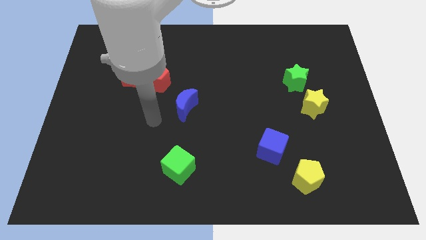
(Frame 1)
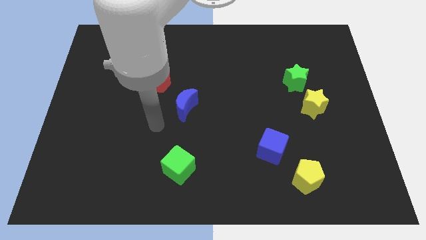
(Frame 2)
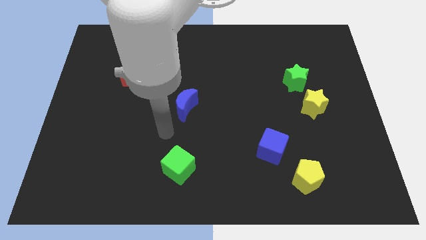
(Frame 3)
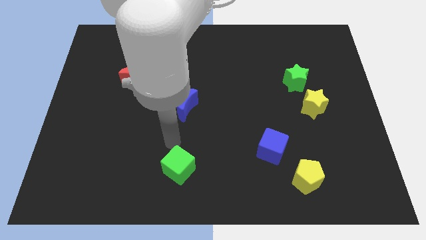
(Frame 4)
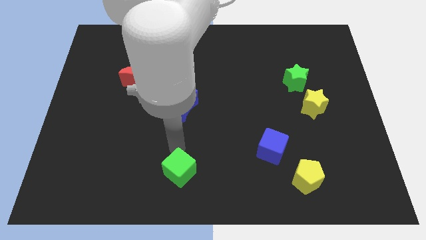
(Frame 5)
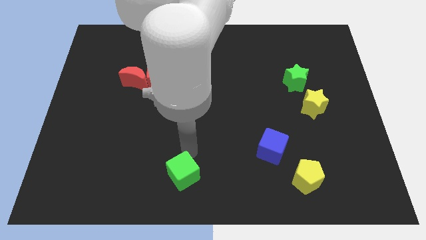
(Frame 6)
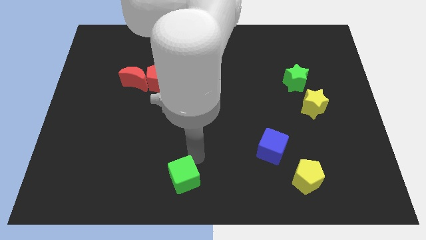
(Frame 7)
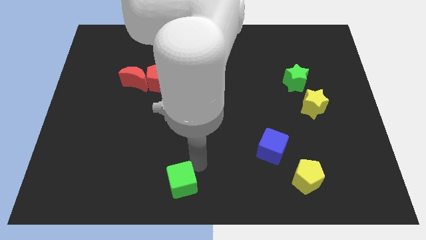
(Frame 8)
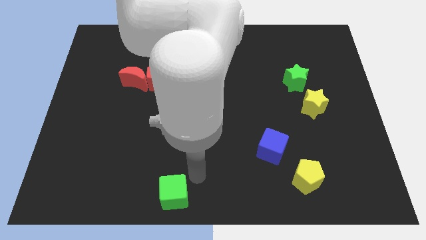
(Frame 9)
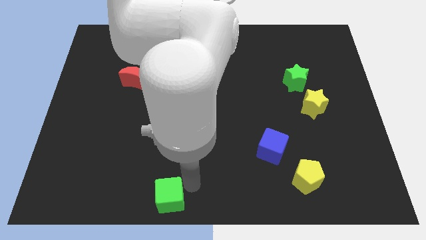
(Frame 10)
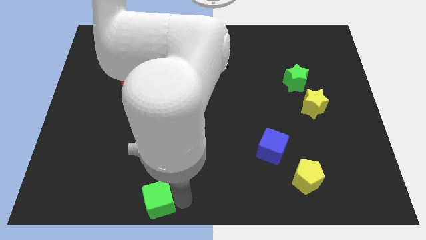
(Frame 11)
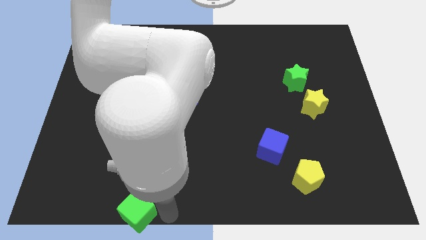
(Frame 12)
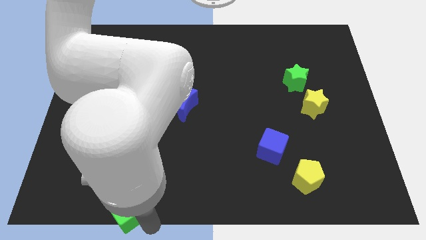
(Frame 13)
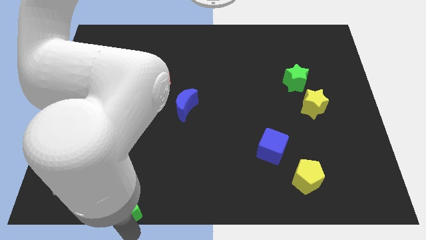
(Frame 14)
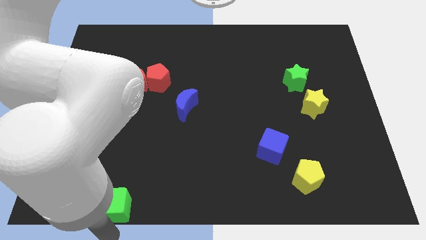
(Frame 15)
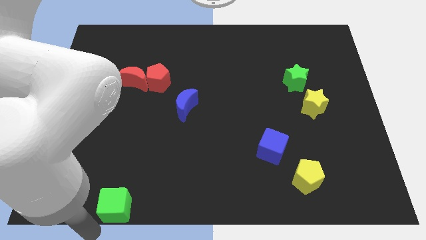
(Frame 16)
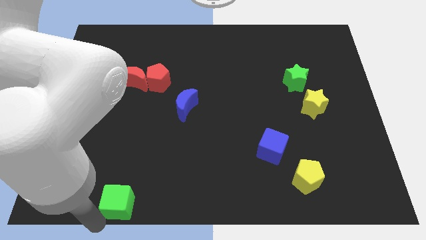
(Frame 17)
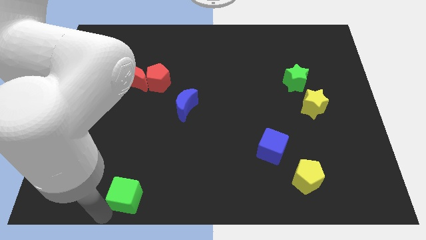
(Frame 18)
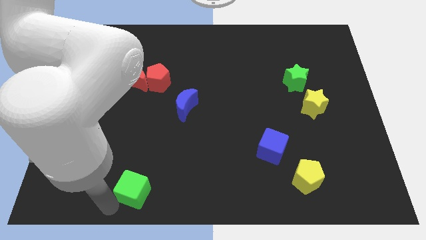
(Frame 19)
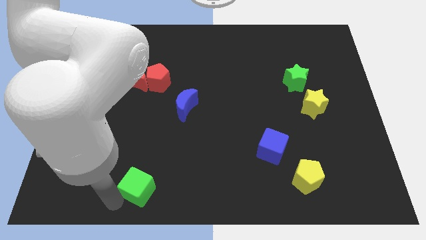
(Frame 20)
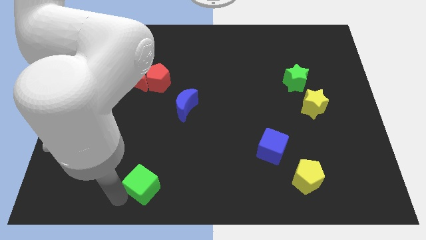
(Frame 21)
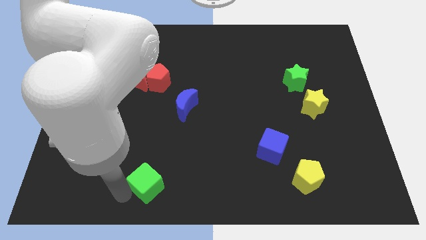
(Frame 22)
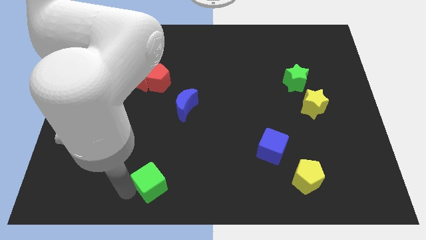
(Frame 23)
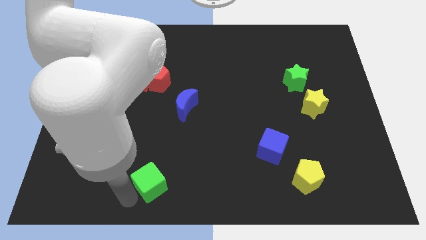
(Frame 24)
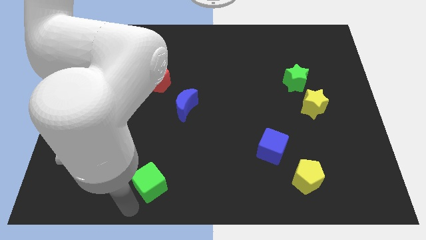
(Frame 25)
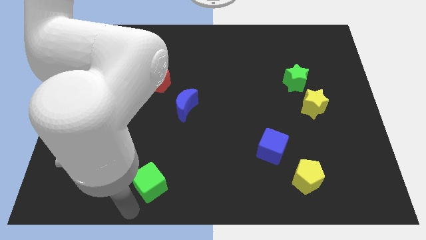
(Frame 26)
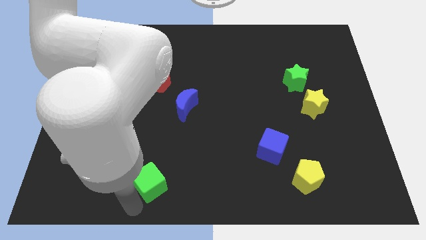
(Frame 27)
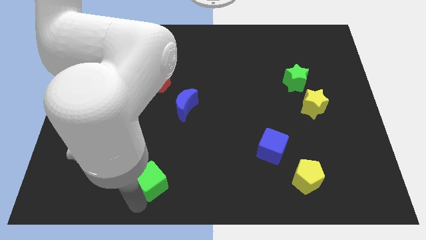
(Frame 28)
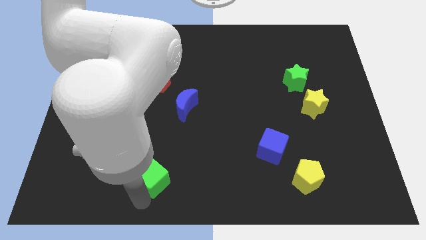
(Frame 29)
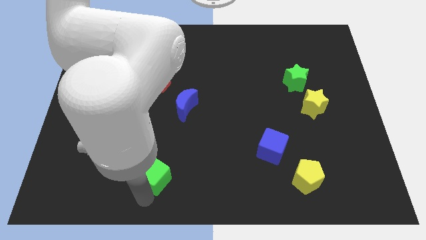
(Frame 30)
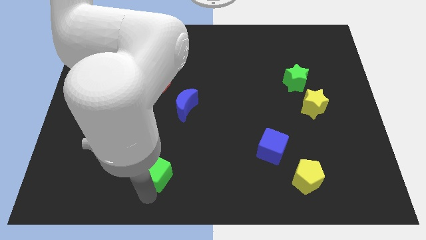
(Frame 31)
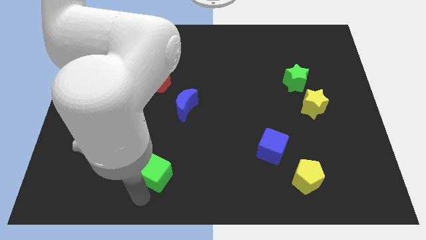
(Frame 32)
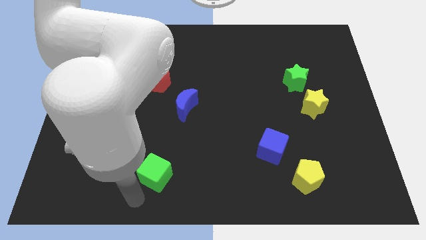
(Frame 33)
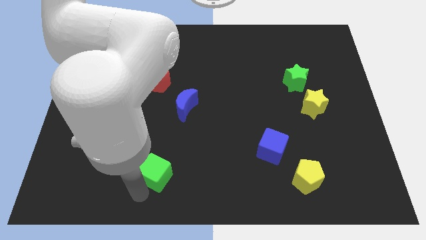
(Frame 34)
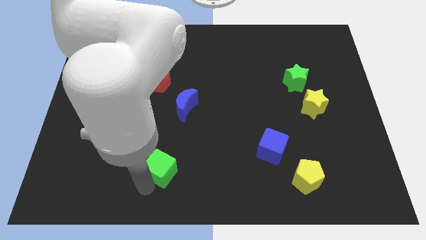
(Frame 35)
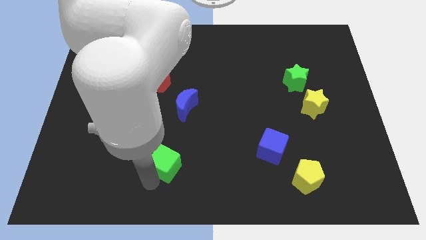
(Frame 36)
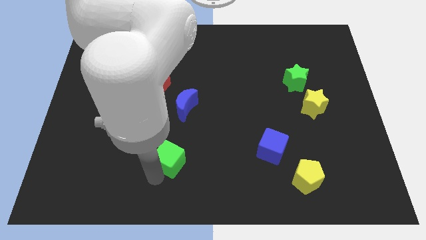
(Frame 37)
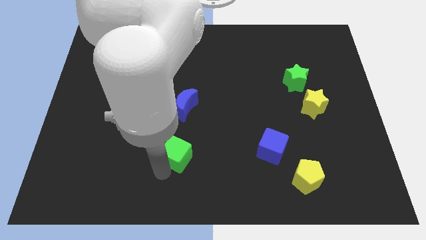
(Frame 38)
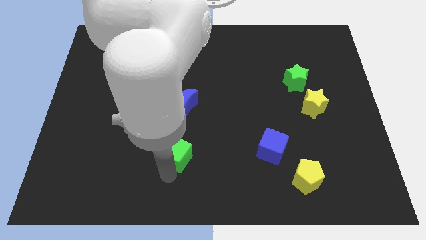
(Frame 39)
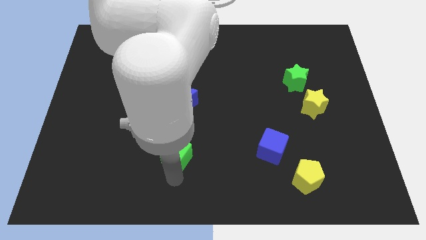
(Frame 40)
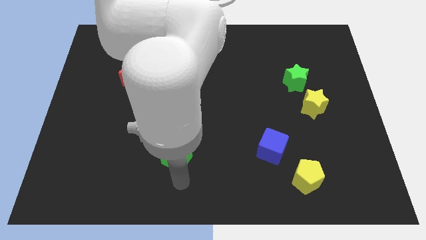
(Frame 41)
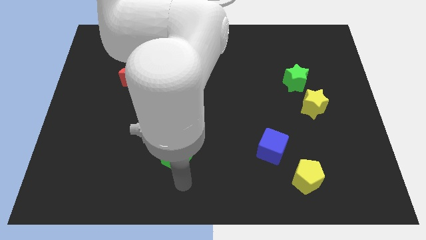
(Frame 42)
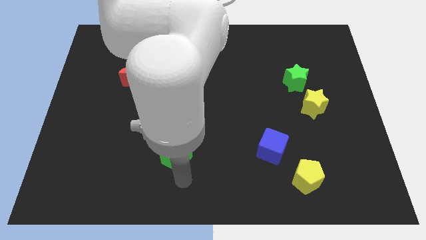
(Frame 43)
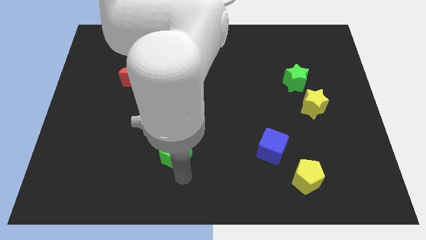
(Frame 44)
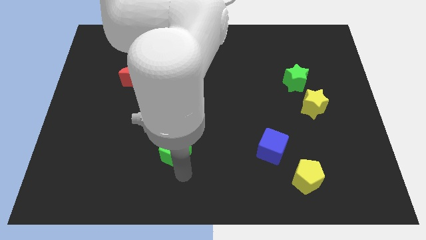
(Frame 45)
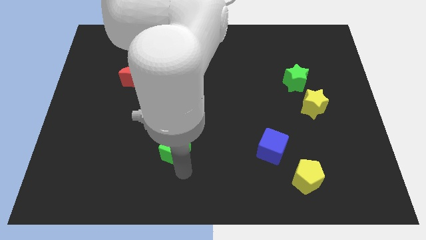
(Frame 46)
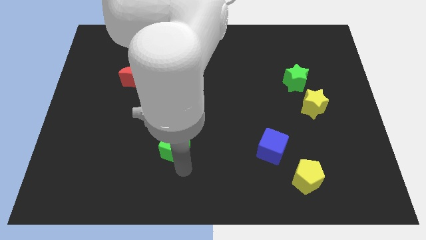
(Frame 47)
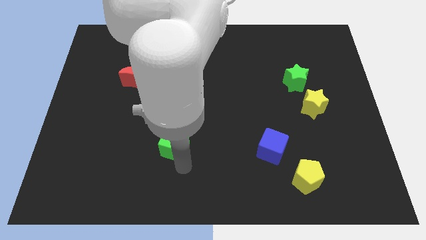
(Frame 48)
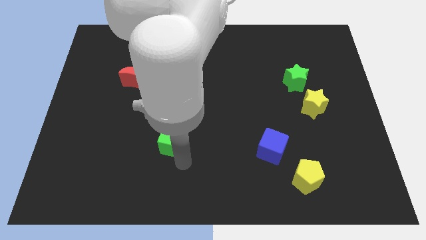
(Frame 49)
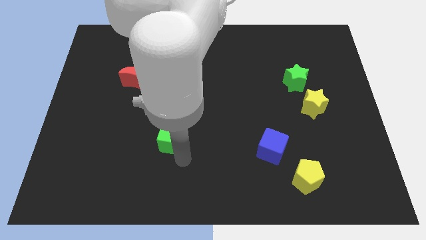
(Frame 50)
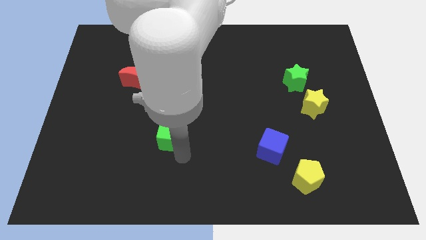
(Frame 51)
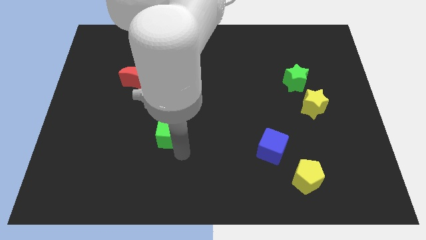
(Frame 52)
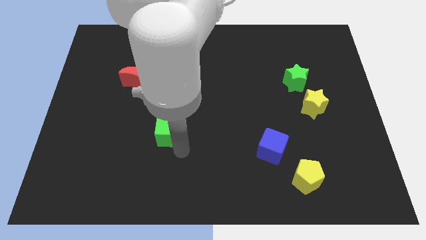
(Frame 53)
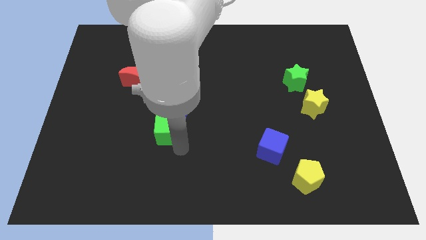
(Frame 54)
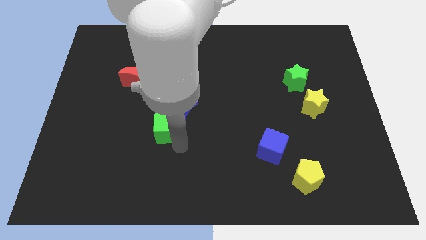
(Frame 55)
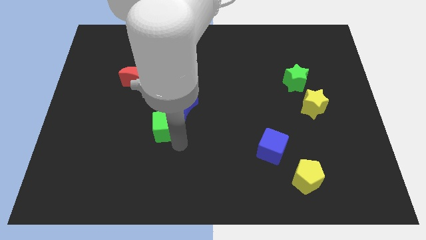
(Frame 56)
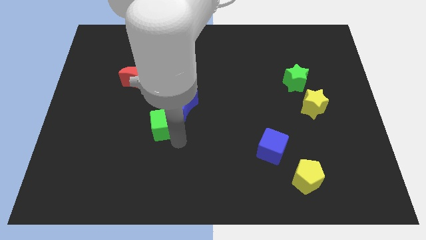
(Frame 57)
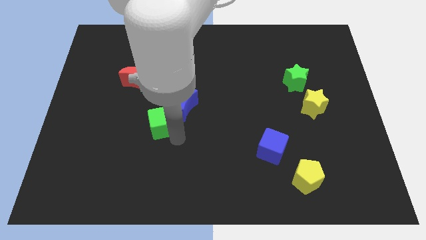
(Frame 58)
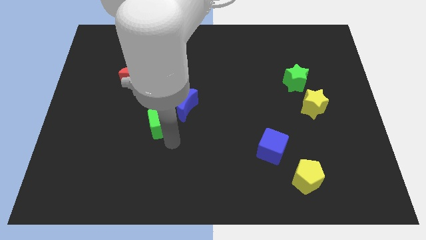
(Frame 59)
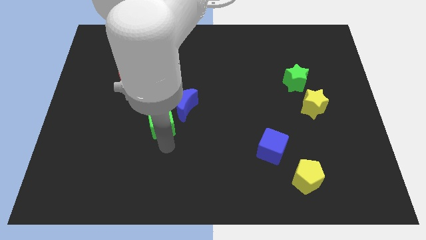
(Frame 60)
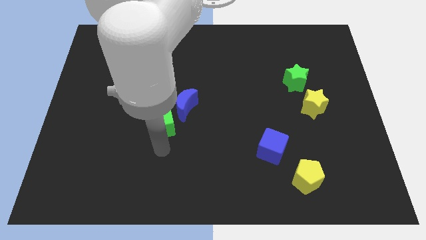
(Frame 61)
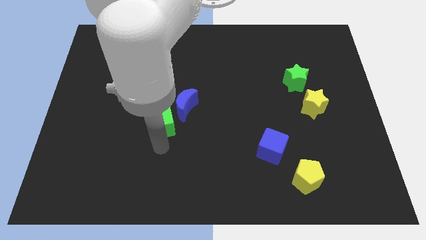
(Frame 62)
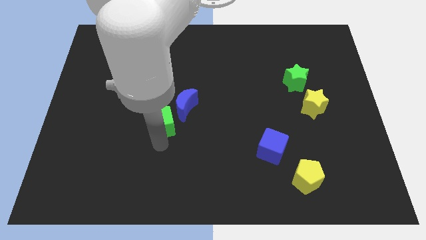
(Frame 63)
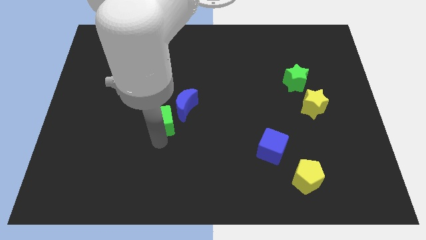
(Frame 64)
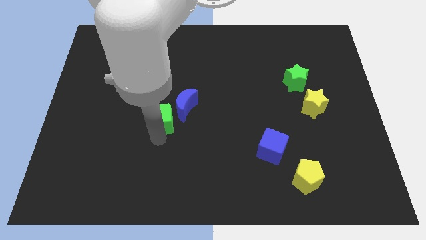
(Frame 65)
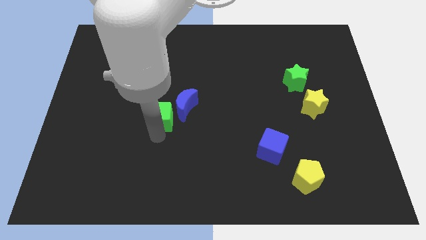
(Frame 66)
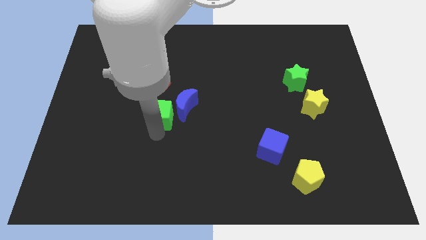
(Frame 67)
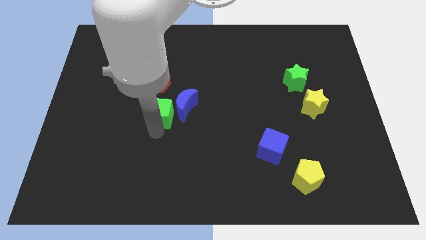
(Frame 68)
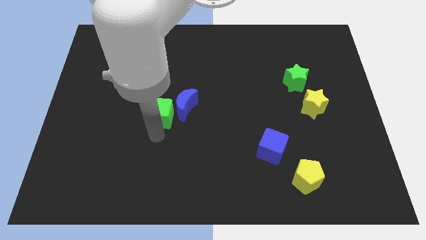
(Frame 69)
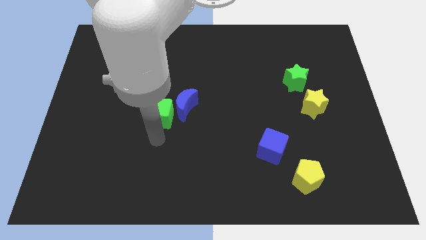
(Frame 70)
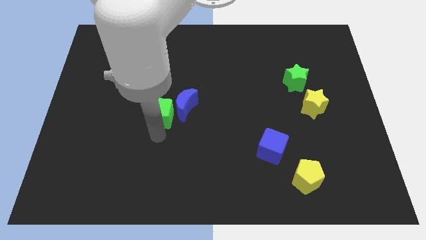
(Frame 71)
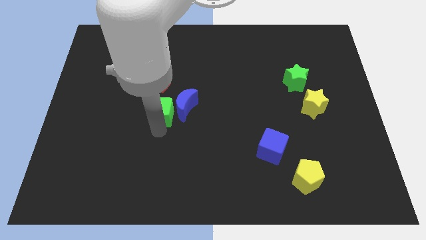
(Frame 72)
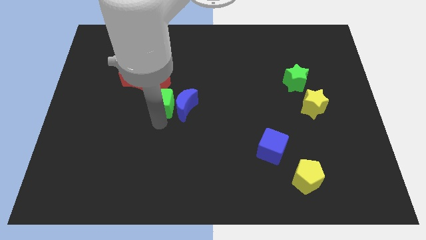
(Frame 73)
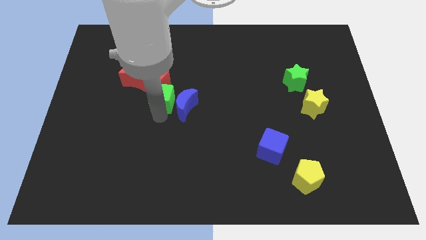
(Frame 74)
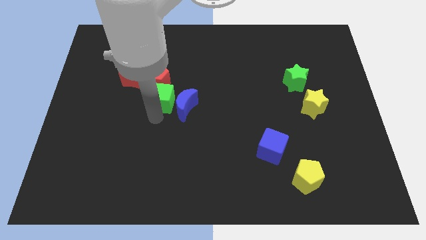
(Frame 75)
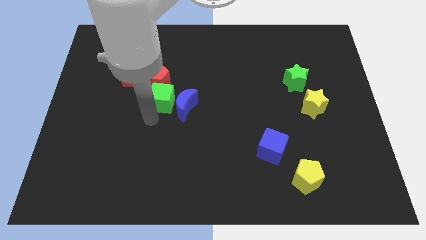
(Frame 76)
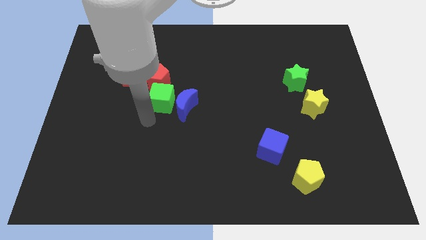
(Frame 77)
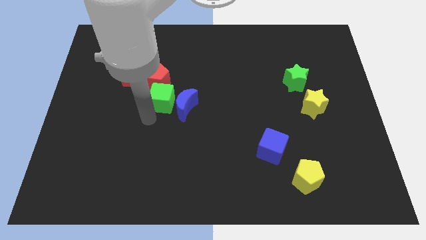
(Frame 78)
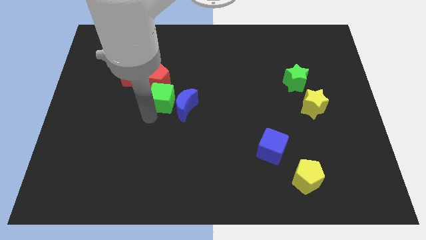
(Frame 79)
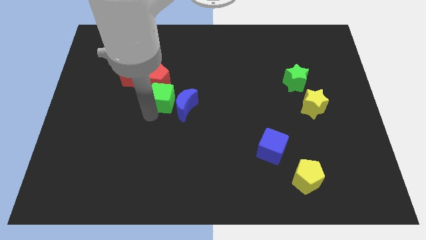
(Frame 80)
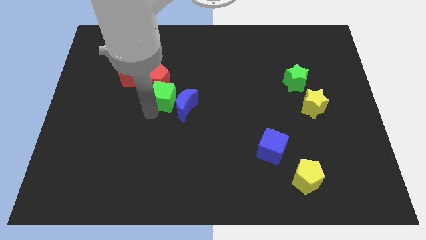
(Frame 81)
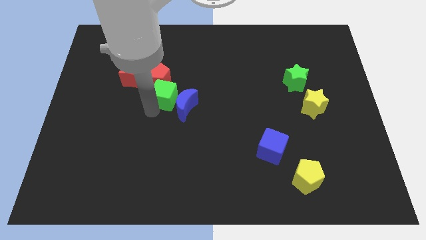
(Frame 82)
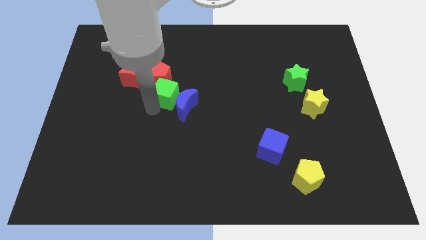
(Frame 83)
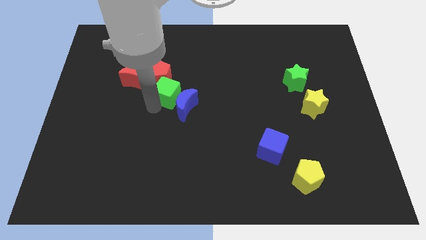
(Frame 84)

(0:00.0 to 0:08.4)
move the green cube to the top of the blue moon
